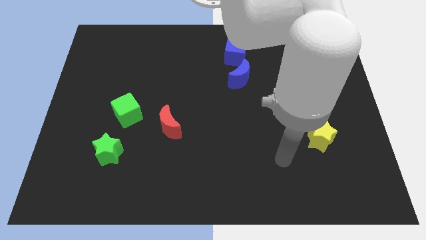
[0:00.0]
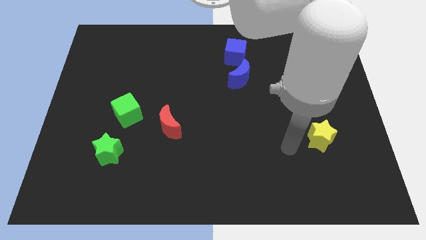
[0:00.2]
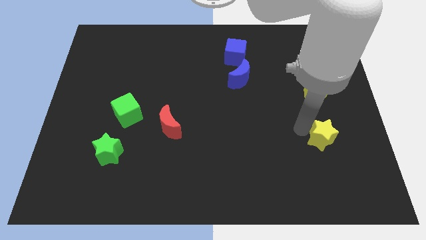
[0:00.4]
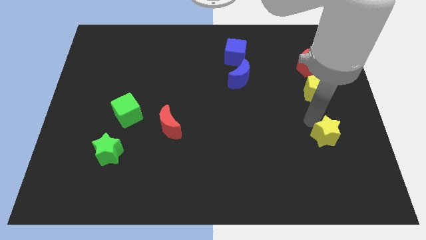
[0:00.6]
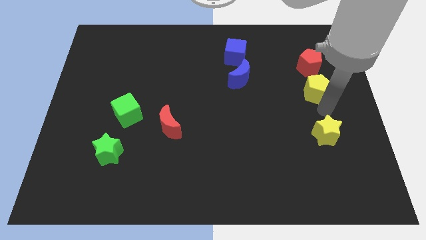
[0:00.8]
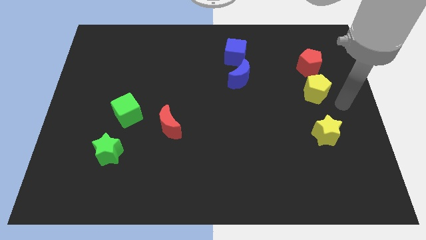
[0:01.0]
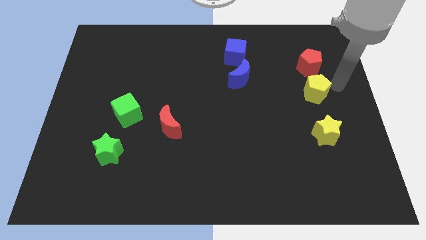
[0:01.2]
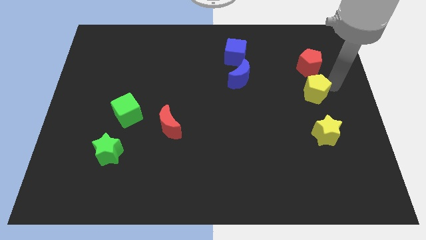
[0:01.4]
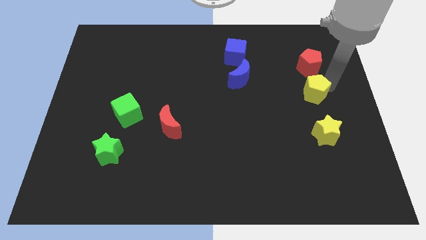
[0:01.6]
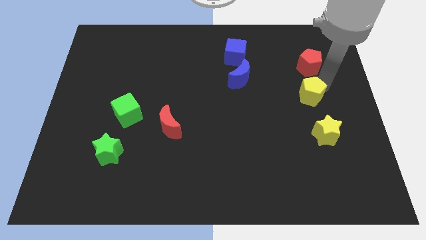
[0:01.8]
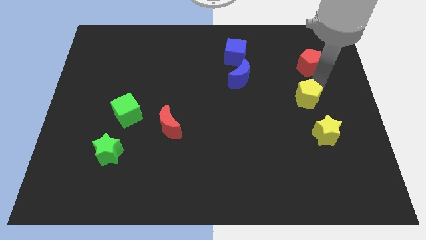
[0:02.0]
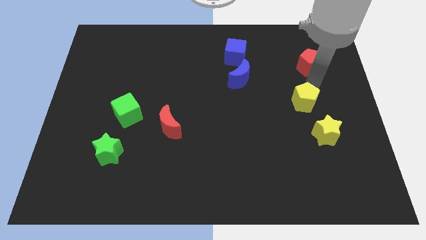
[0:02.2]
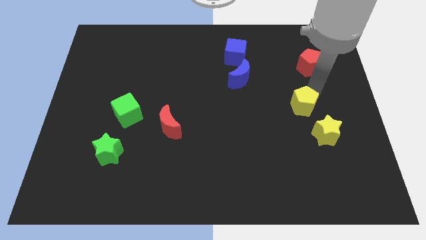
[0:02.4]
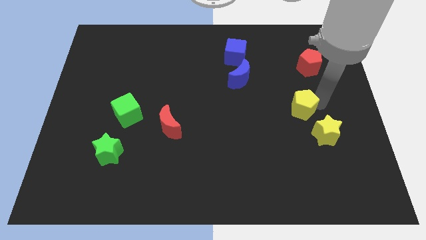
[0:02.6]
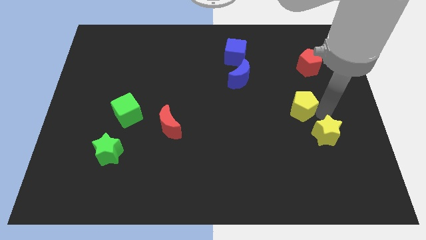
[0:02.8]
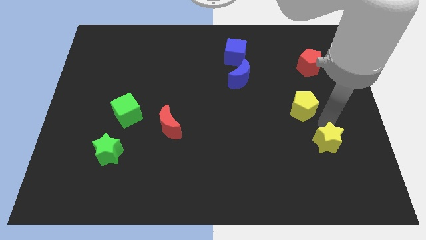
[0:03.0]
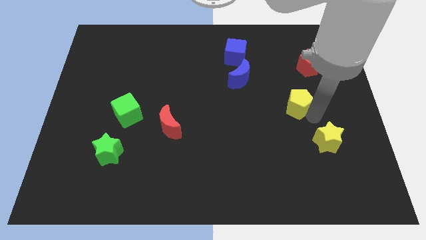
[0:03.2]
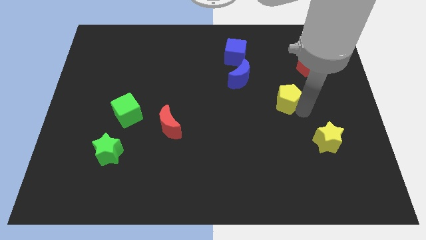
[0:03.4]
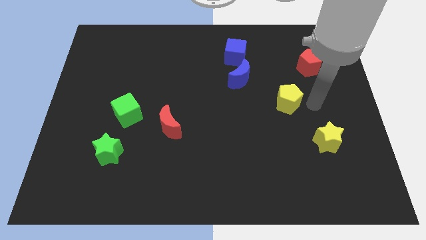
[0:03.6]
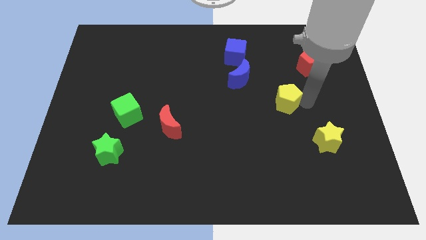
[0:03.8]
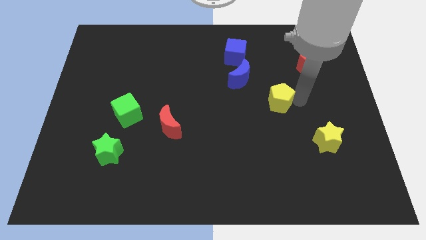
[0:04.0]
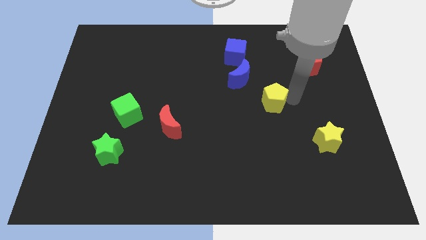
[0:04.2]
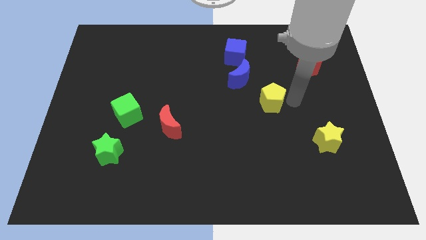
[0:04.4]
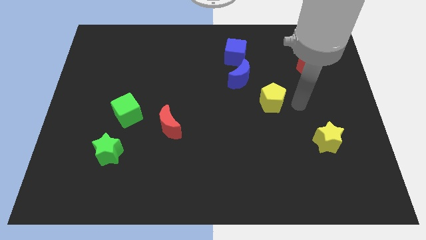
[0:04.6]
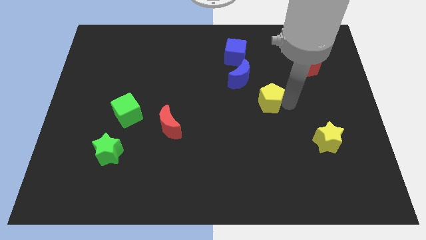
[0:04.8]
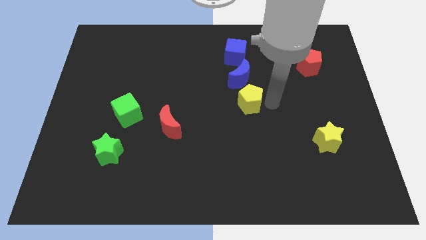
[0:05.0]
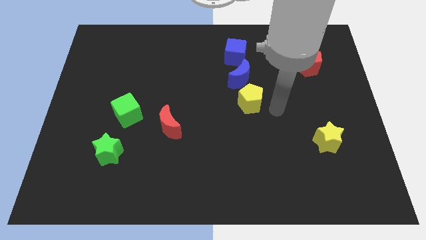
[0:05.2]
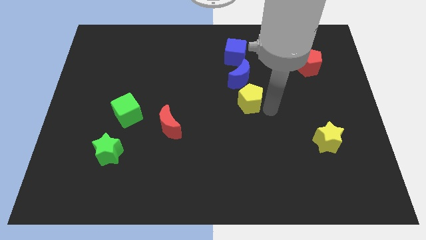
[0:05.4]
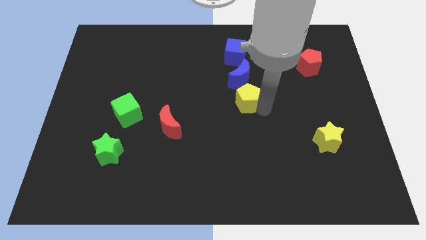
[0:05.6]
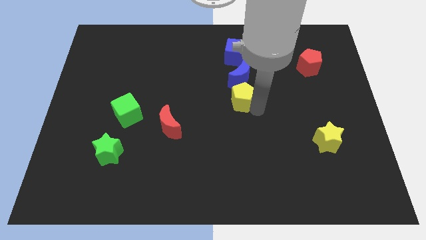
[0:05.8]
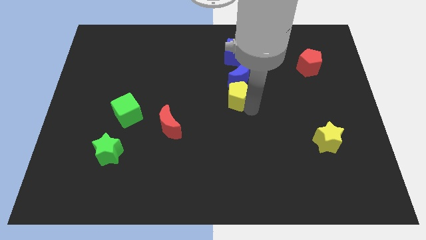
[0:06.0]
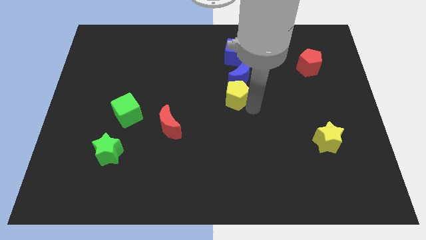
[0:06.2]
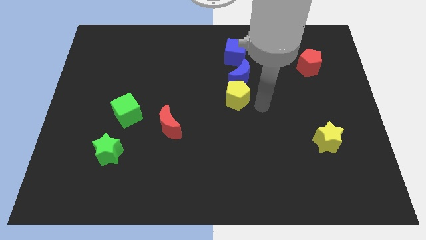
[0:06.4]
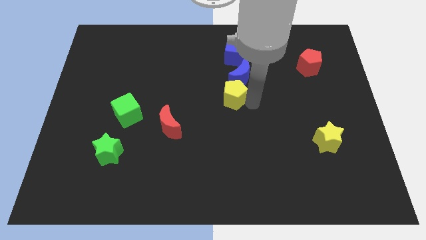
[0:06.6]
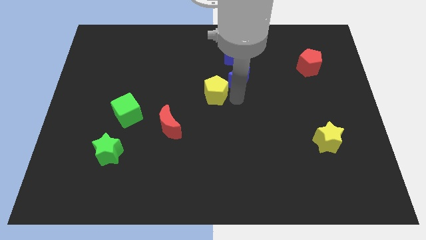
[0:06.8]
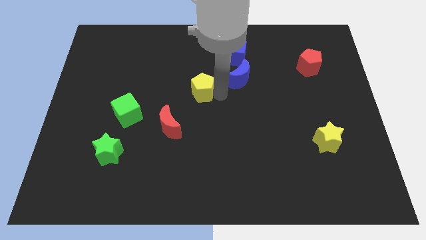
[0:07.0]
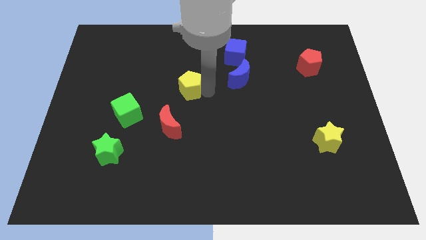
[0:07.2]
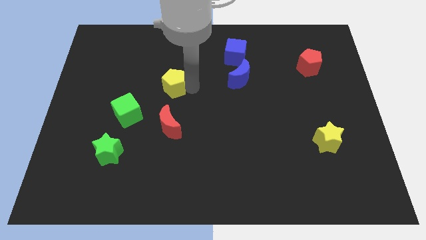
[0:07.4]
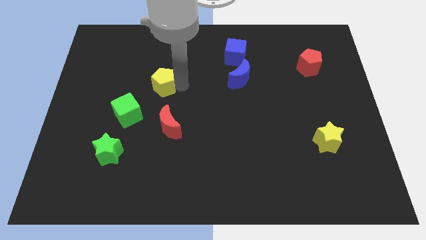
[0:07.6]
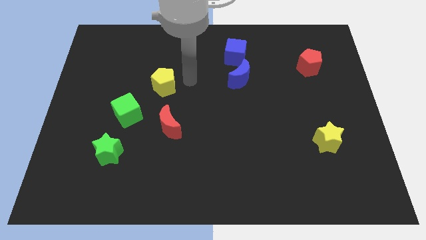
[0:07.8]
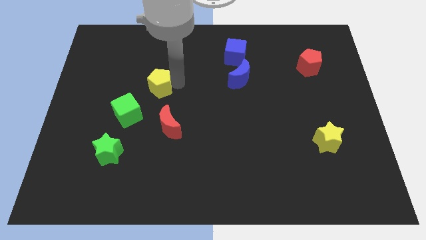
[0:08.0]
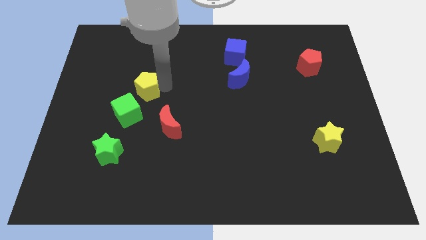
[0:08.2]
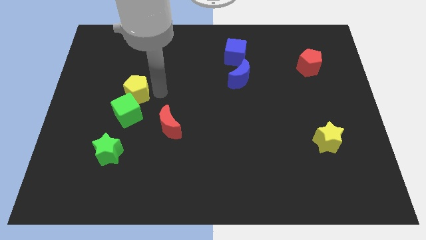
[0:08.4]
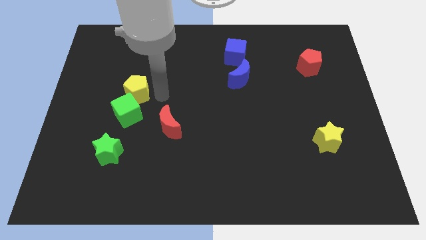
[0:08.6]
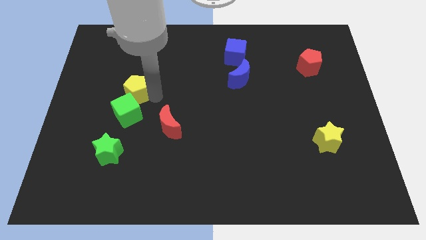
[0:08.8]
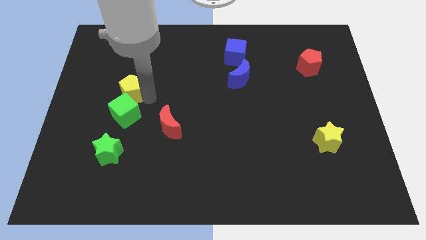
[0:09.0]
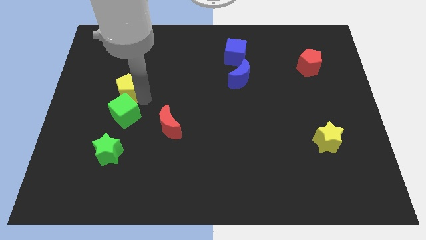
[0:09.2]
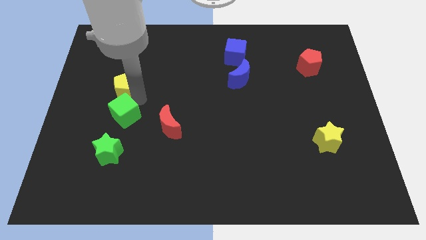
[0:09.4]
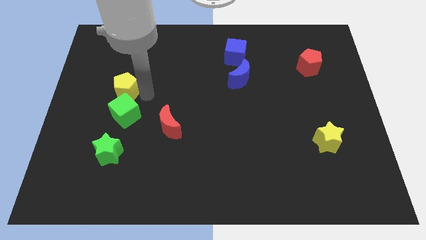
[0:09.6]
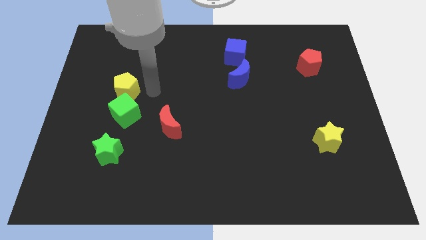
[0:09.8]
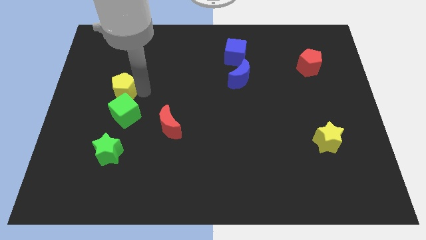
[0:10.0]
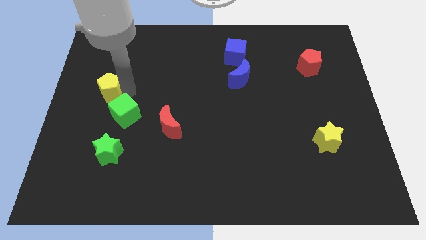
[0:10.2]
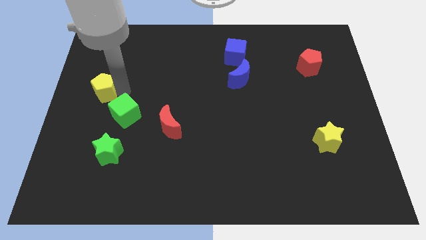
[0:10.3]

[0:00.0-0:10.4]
slide the yellow pentagon to the left side of the board

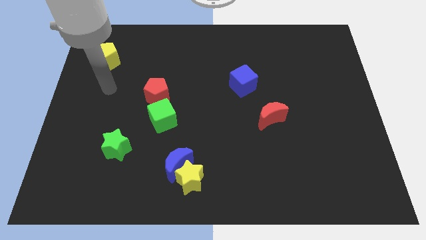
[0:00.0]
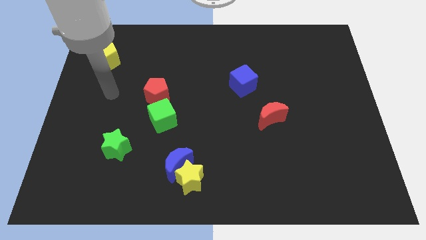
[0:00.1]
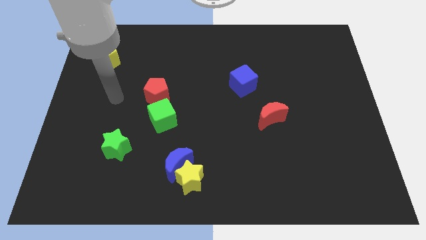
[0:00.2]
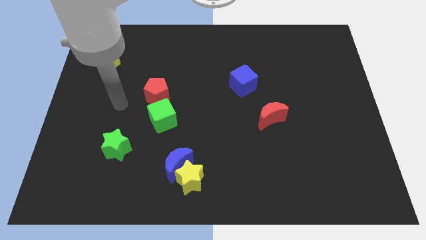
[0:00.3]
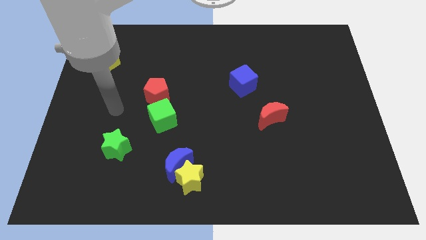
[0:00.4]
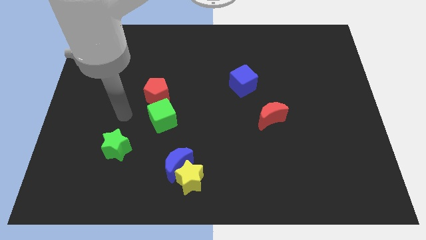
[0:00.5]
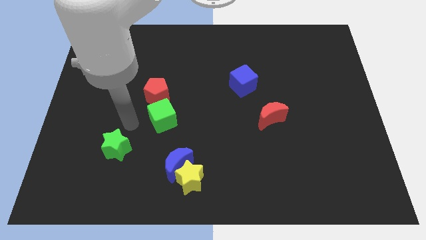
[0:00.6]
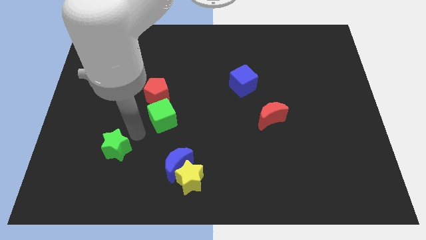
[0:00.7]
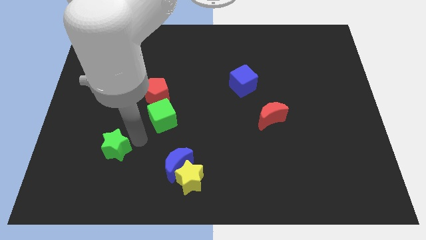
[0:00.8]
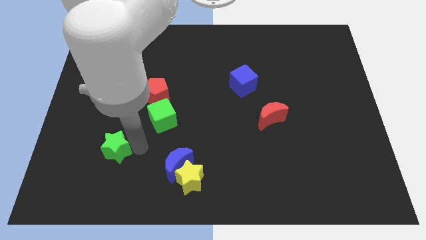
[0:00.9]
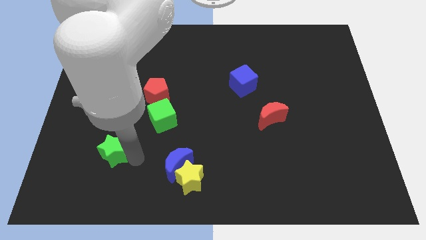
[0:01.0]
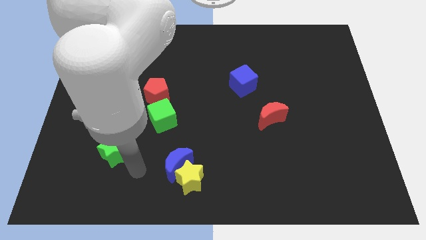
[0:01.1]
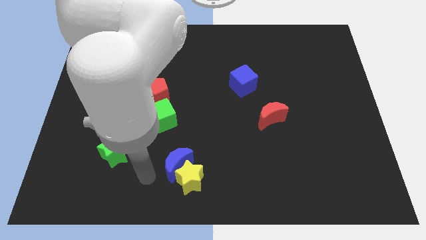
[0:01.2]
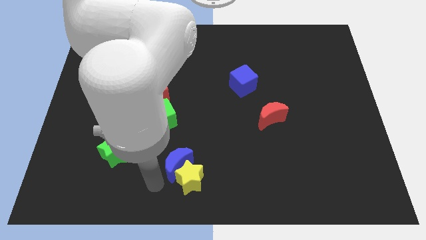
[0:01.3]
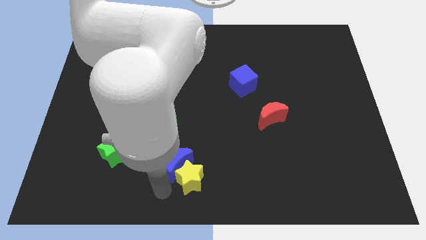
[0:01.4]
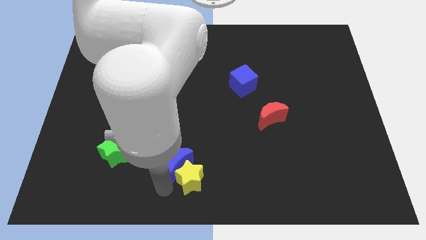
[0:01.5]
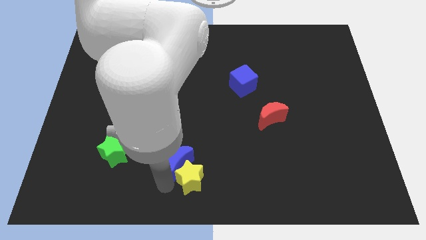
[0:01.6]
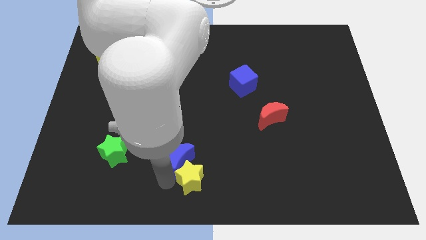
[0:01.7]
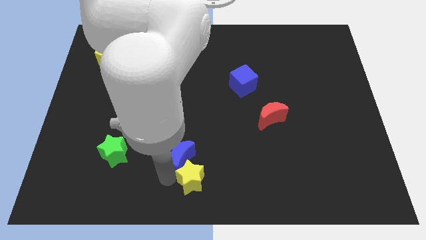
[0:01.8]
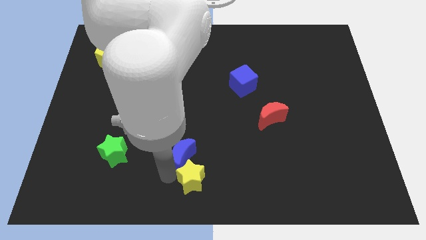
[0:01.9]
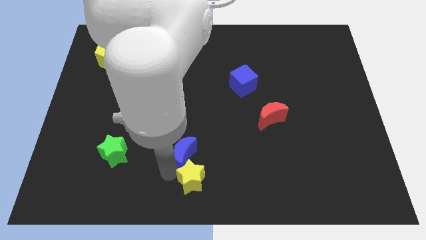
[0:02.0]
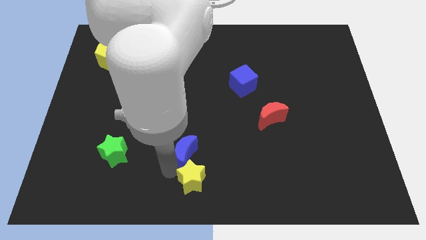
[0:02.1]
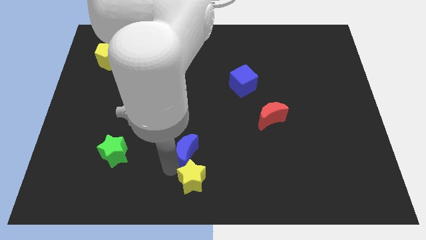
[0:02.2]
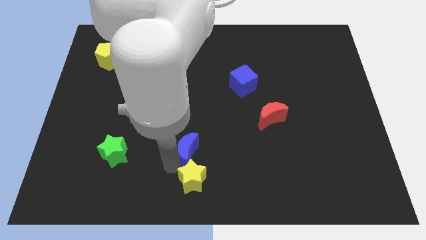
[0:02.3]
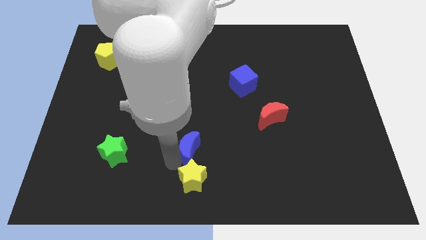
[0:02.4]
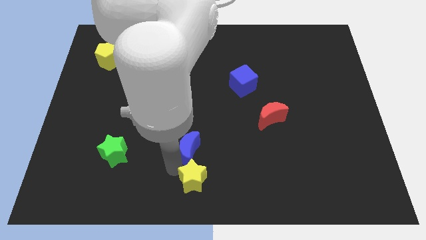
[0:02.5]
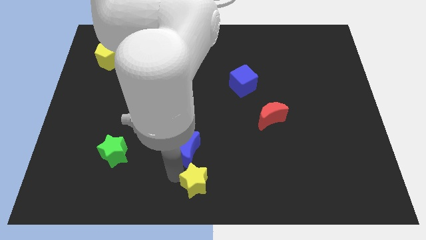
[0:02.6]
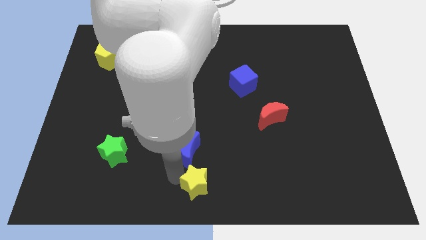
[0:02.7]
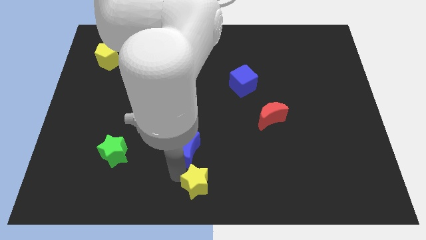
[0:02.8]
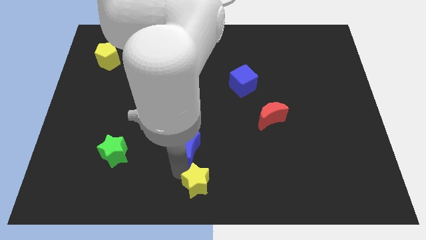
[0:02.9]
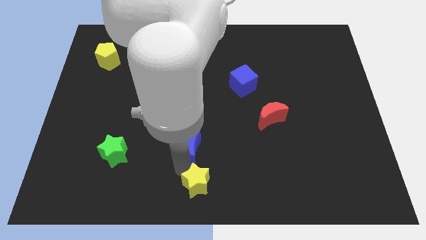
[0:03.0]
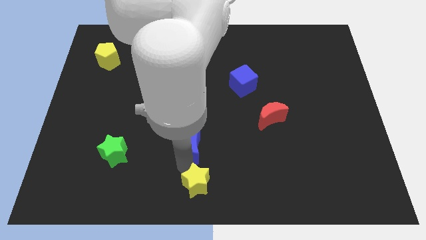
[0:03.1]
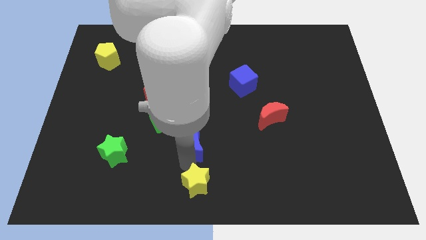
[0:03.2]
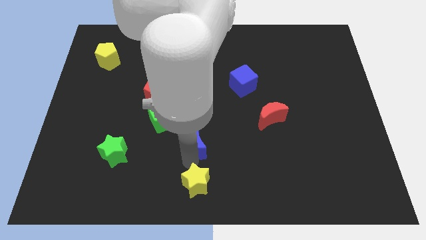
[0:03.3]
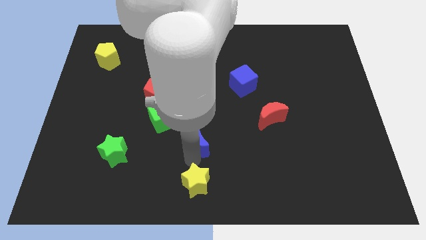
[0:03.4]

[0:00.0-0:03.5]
move the blue moon to the center
